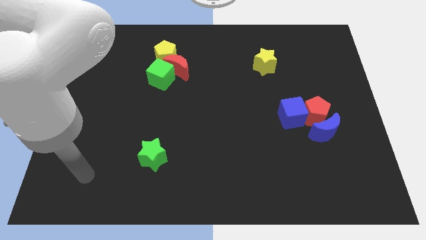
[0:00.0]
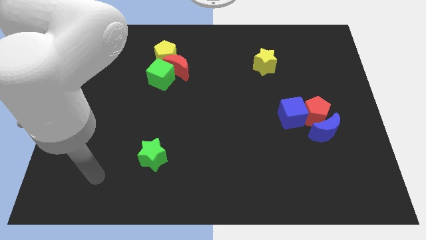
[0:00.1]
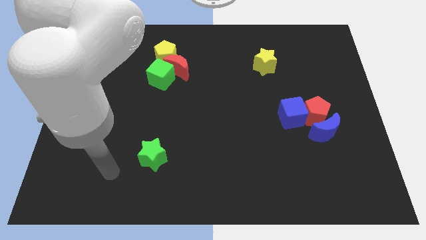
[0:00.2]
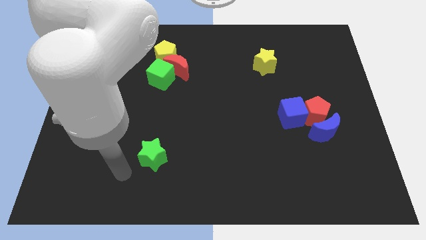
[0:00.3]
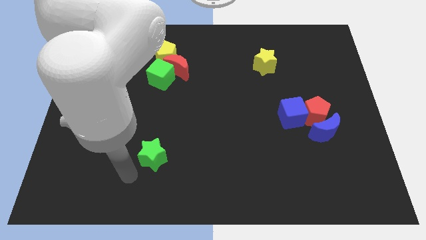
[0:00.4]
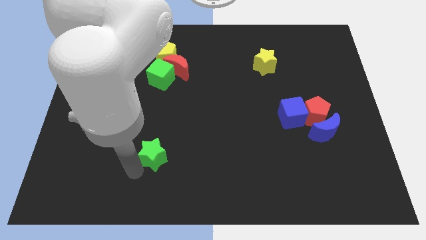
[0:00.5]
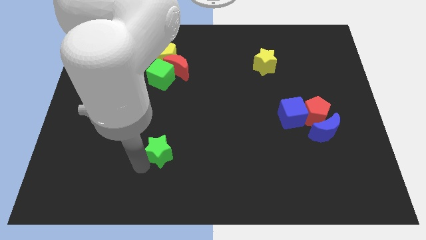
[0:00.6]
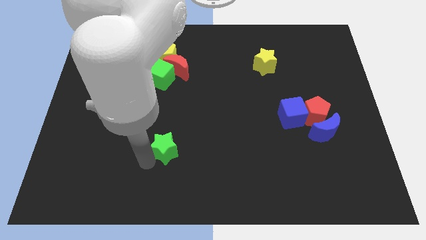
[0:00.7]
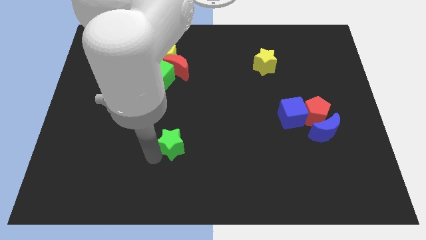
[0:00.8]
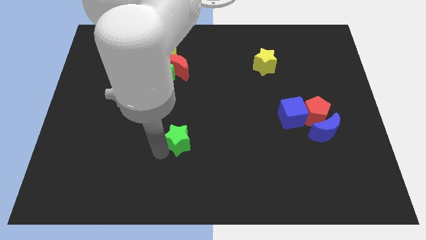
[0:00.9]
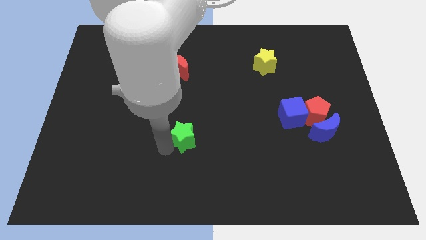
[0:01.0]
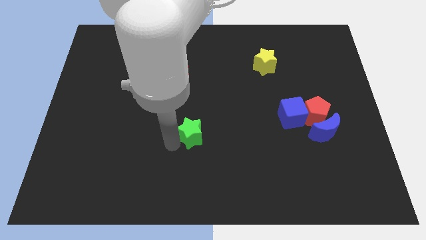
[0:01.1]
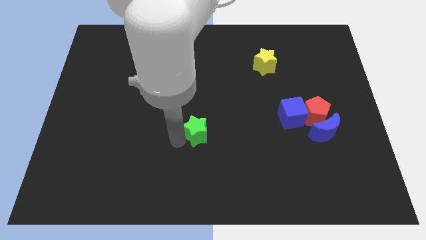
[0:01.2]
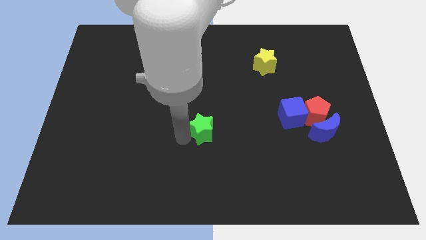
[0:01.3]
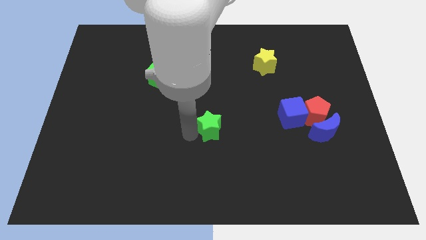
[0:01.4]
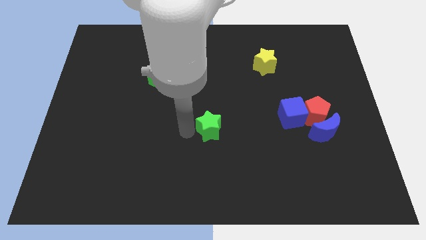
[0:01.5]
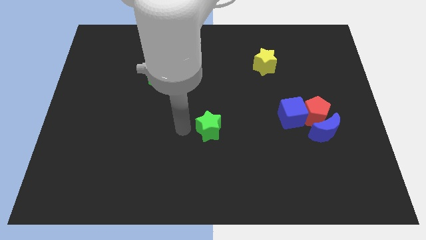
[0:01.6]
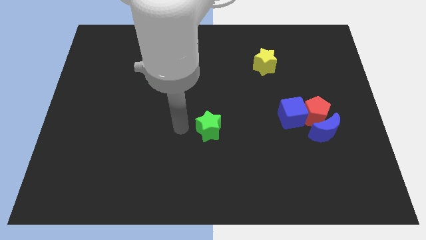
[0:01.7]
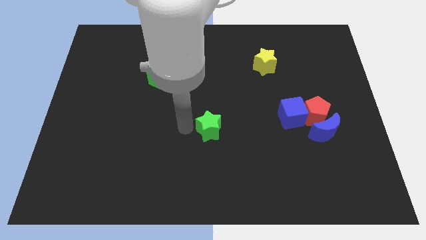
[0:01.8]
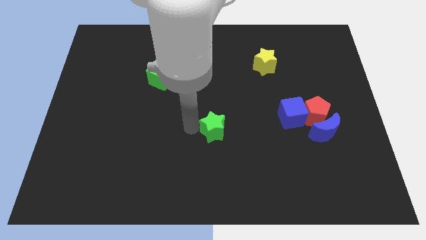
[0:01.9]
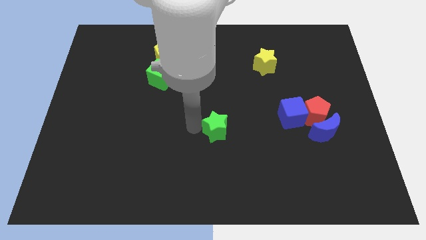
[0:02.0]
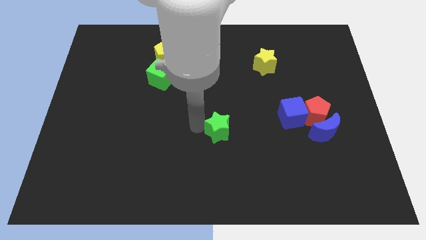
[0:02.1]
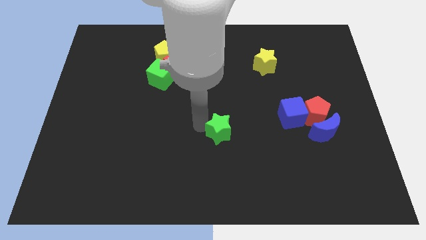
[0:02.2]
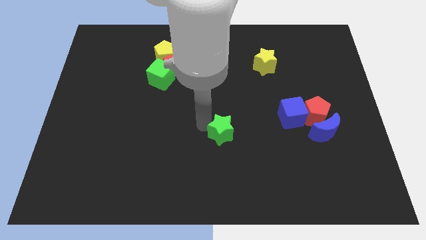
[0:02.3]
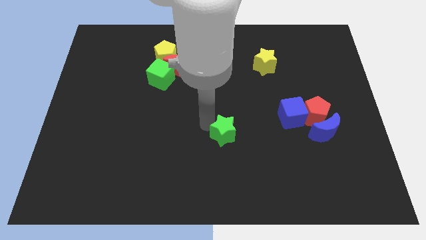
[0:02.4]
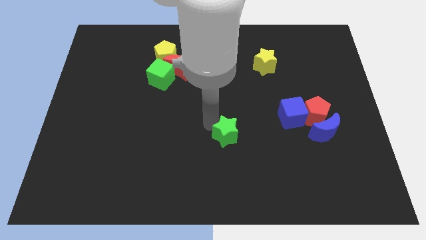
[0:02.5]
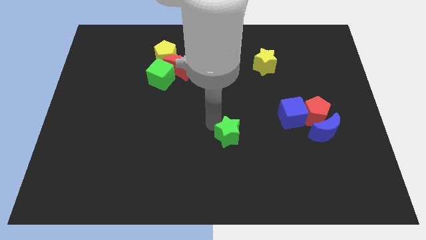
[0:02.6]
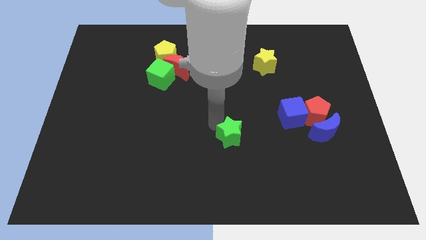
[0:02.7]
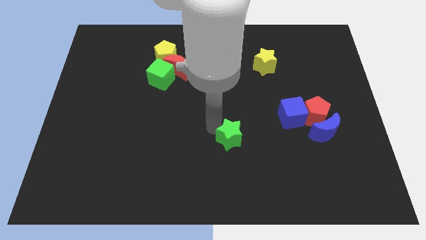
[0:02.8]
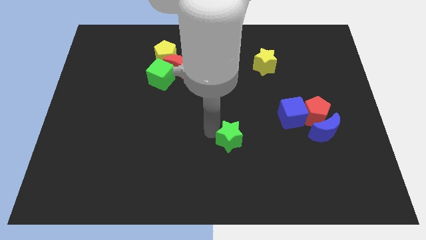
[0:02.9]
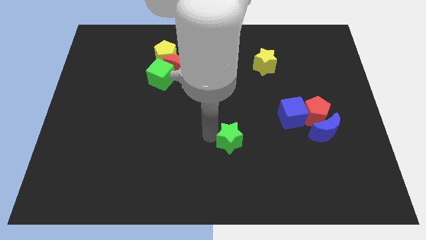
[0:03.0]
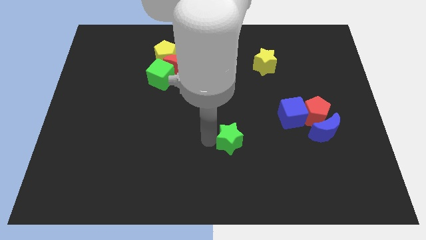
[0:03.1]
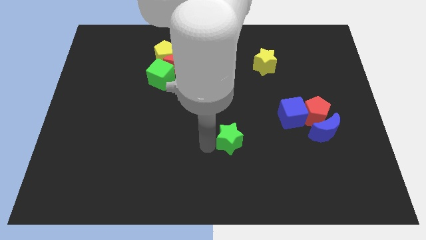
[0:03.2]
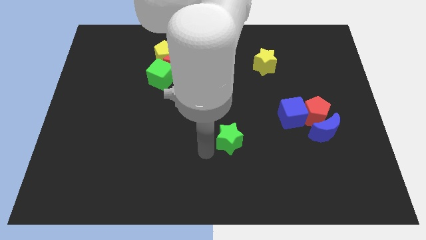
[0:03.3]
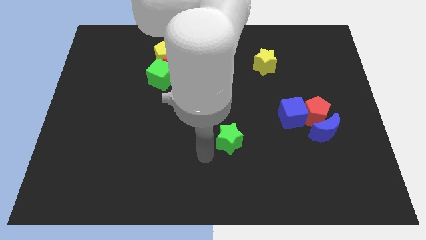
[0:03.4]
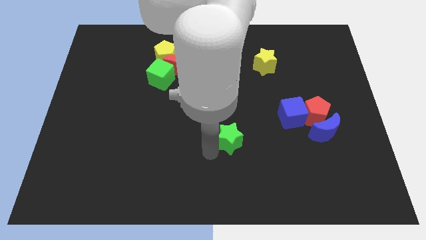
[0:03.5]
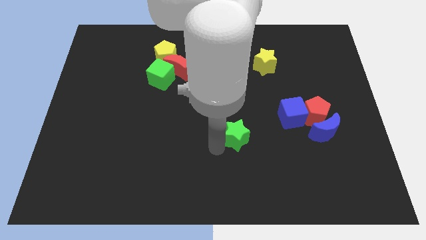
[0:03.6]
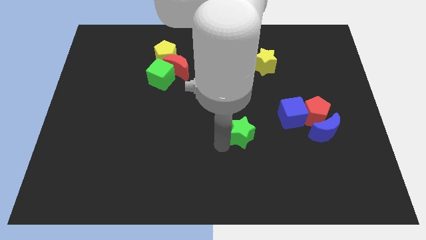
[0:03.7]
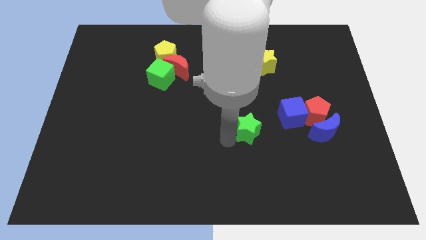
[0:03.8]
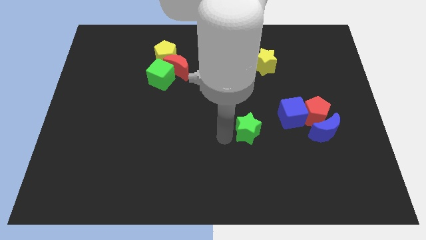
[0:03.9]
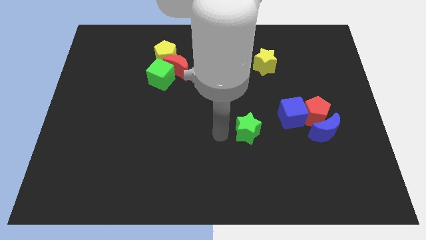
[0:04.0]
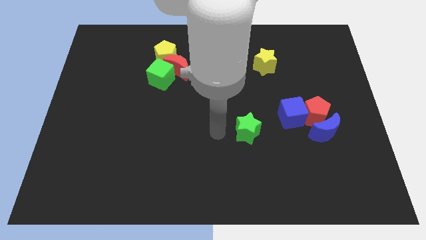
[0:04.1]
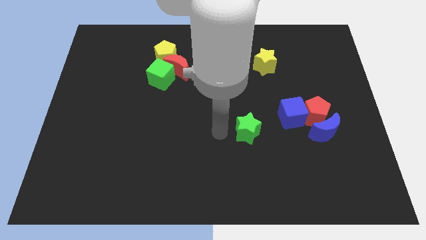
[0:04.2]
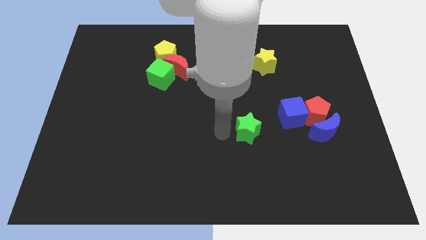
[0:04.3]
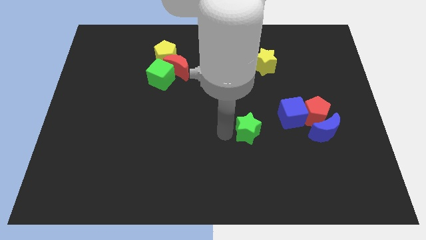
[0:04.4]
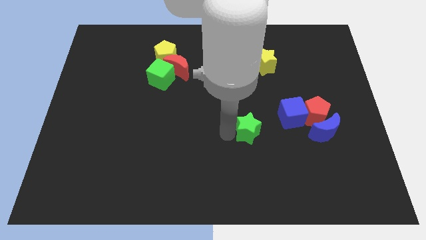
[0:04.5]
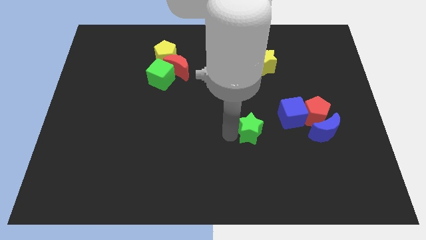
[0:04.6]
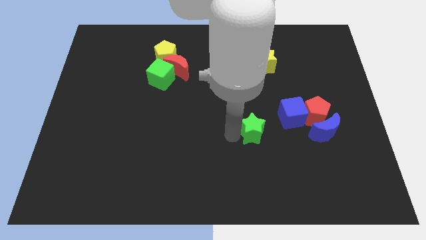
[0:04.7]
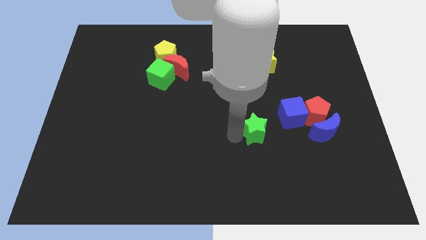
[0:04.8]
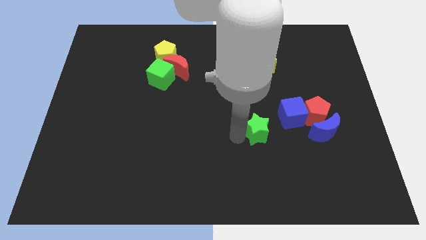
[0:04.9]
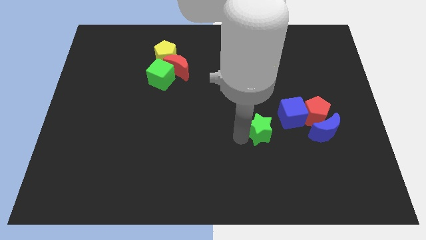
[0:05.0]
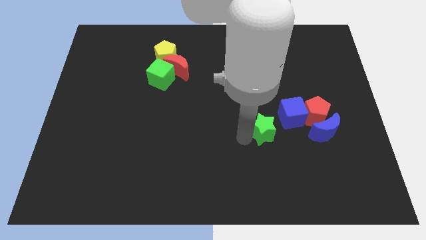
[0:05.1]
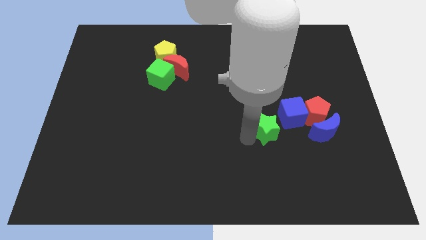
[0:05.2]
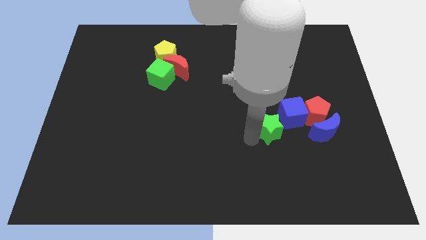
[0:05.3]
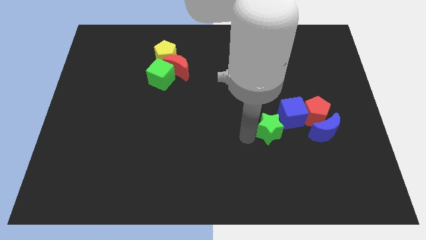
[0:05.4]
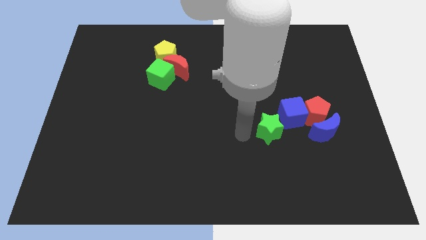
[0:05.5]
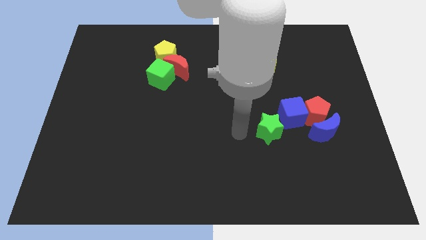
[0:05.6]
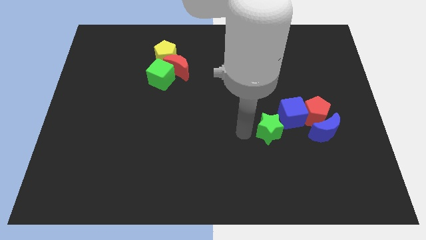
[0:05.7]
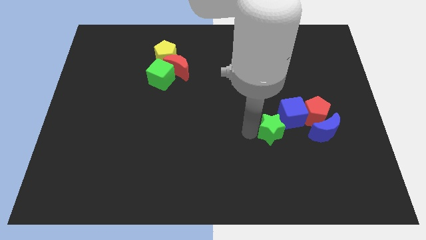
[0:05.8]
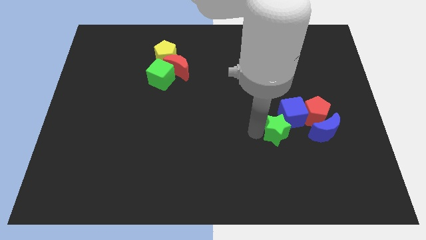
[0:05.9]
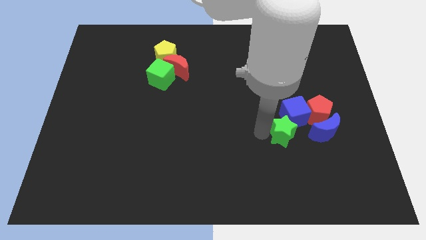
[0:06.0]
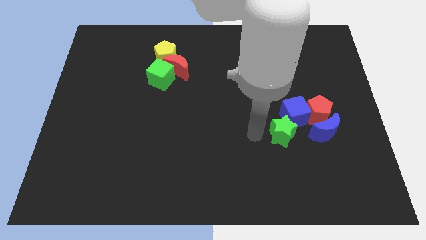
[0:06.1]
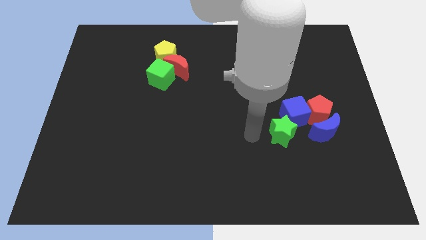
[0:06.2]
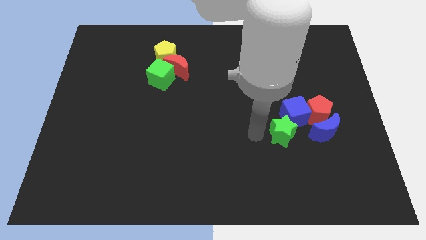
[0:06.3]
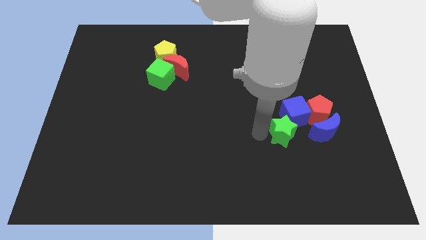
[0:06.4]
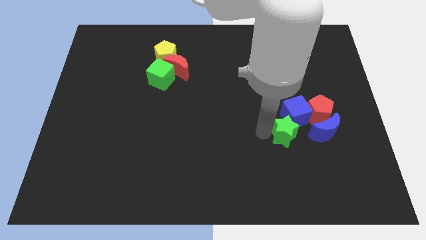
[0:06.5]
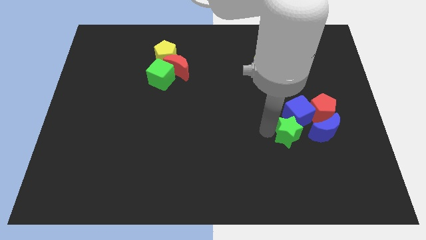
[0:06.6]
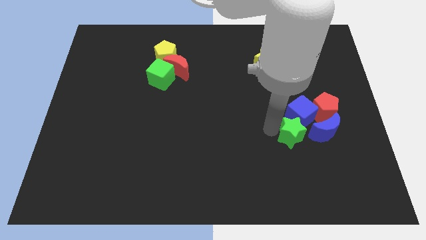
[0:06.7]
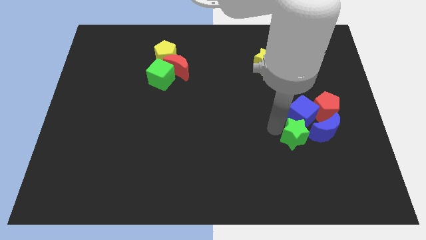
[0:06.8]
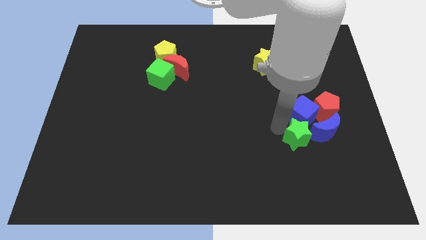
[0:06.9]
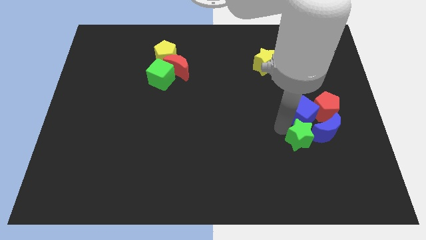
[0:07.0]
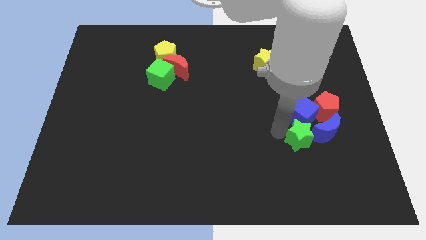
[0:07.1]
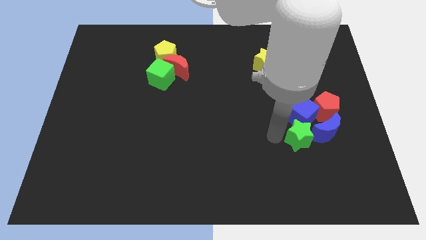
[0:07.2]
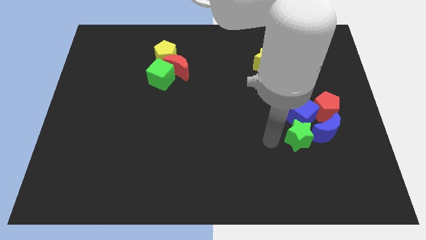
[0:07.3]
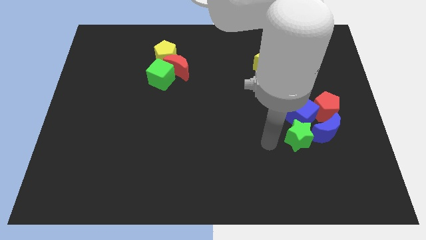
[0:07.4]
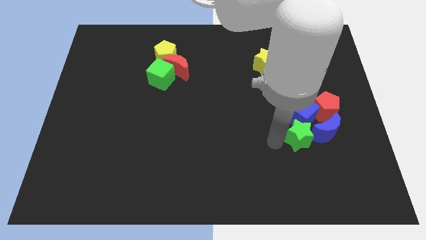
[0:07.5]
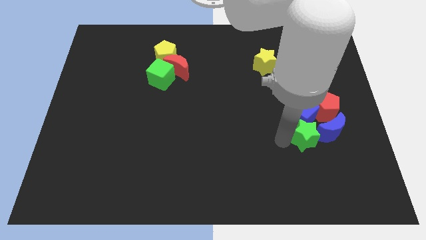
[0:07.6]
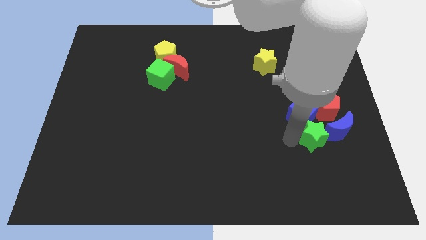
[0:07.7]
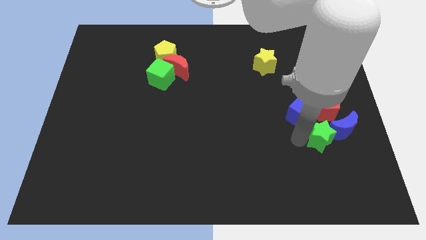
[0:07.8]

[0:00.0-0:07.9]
put the green star to the blue moon
